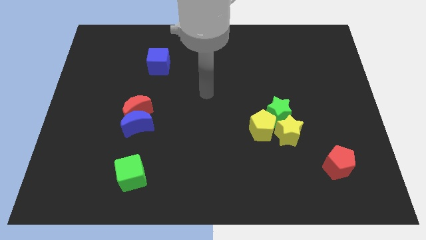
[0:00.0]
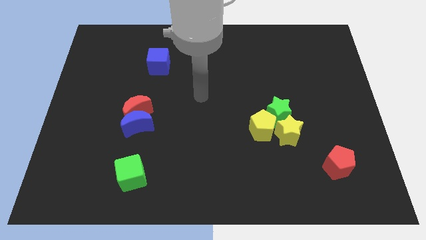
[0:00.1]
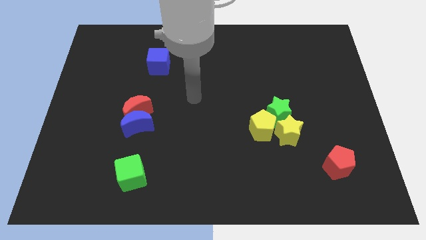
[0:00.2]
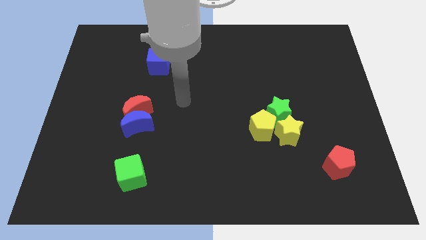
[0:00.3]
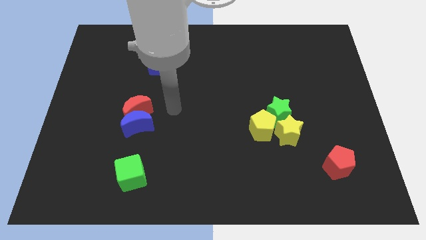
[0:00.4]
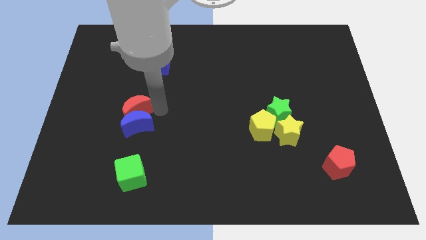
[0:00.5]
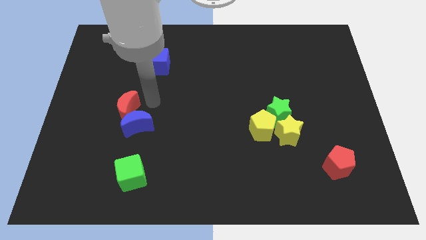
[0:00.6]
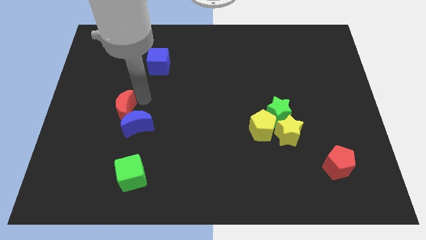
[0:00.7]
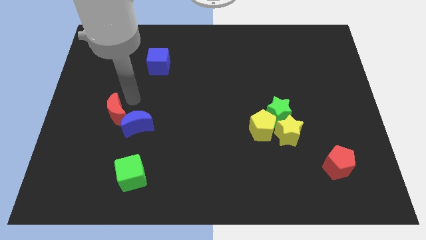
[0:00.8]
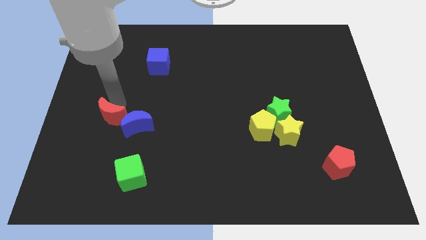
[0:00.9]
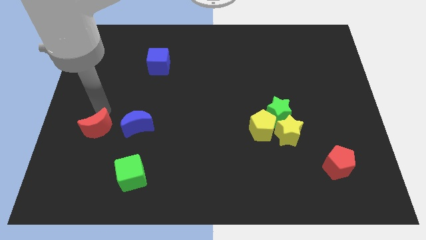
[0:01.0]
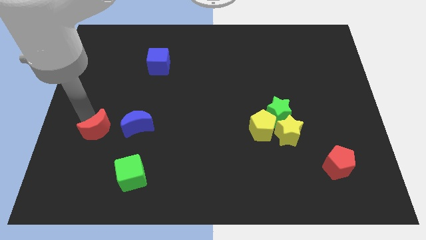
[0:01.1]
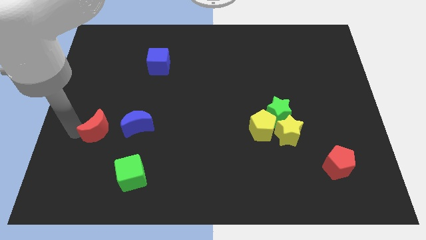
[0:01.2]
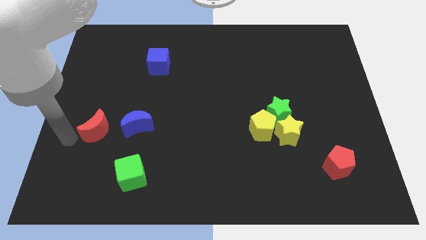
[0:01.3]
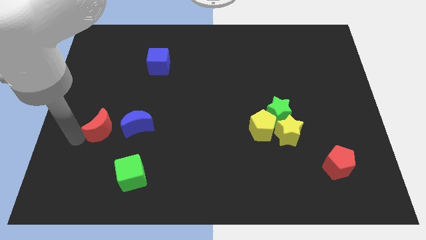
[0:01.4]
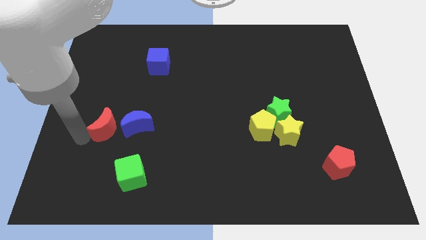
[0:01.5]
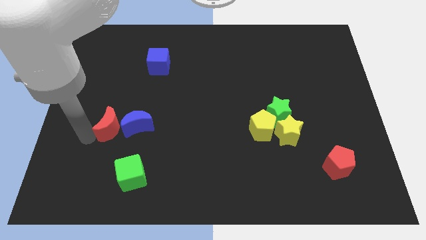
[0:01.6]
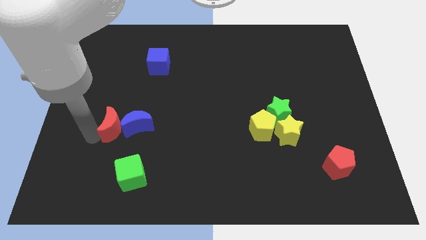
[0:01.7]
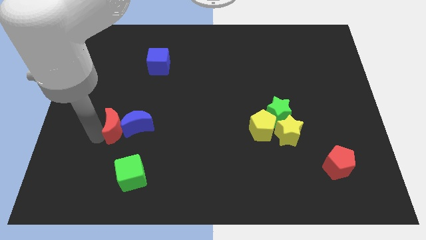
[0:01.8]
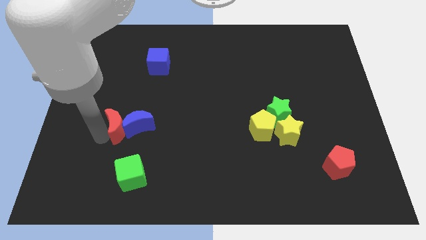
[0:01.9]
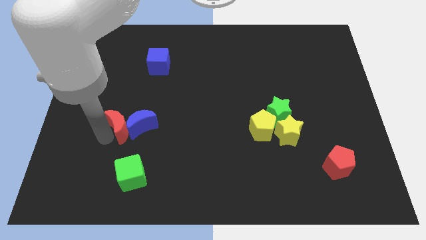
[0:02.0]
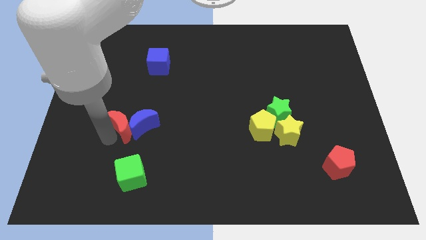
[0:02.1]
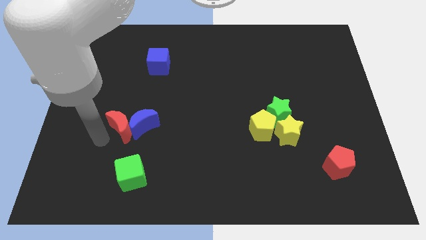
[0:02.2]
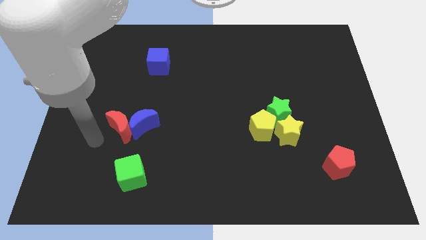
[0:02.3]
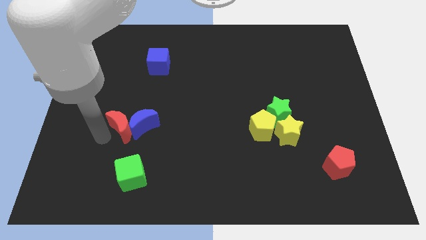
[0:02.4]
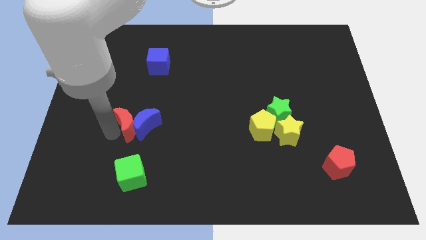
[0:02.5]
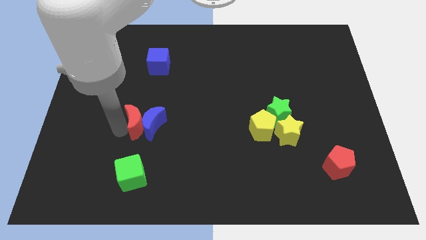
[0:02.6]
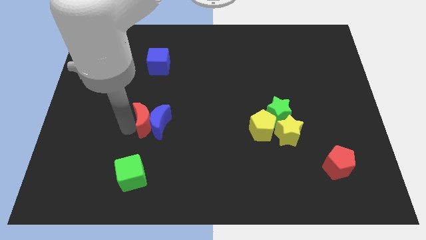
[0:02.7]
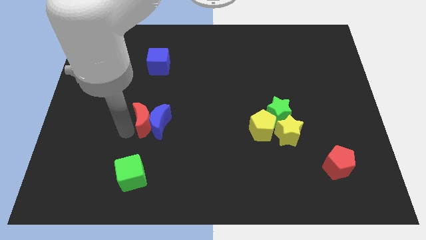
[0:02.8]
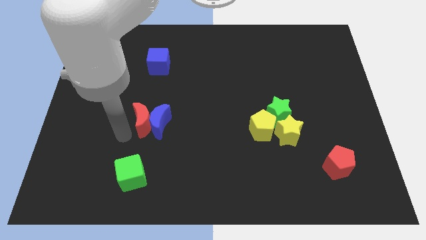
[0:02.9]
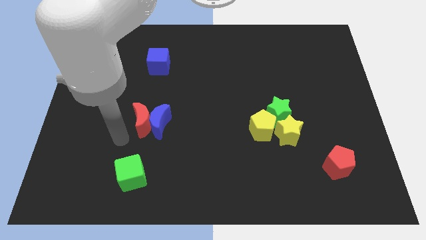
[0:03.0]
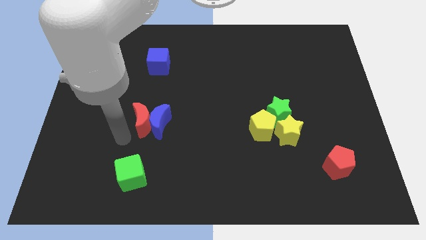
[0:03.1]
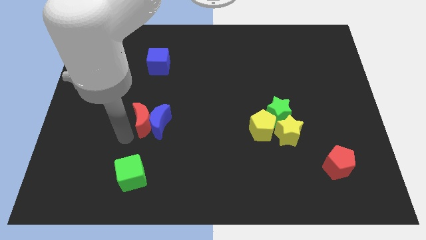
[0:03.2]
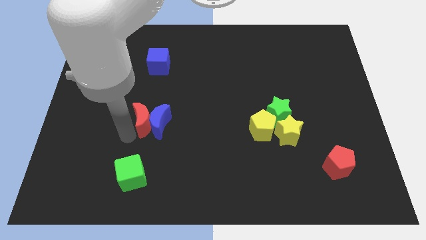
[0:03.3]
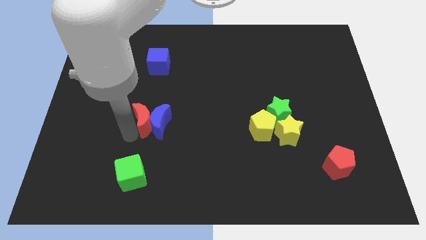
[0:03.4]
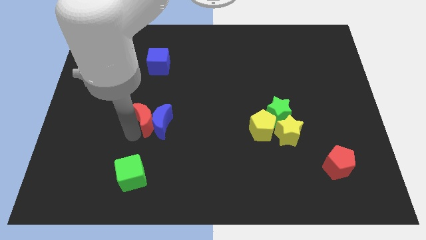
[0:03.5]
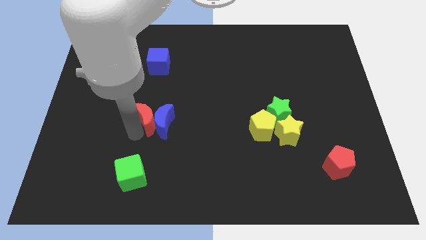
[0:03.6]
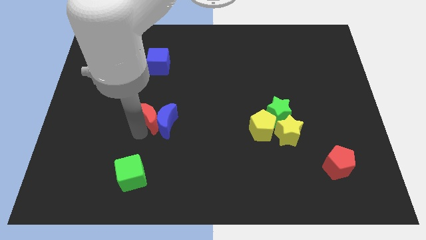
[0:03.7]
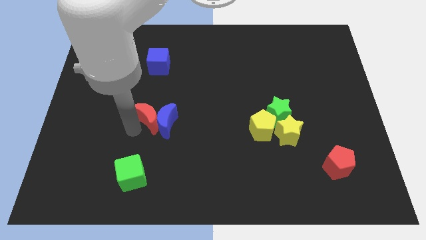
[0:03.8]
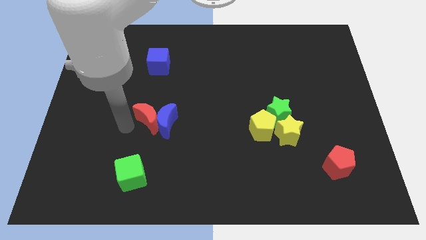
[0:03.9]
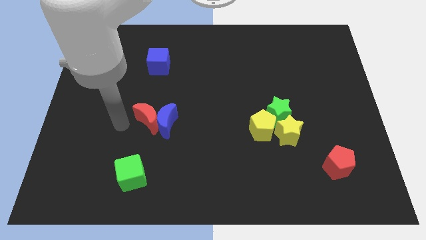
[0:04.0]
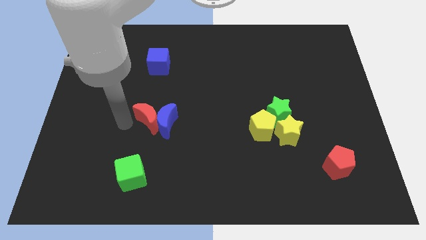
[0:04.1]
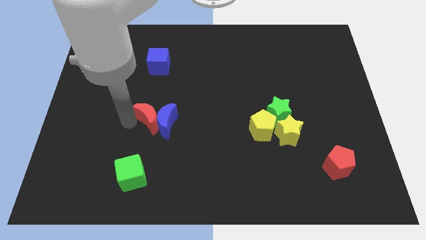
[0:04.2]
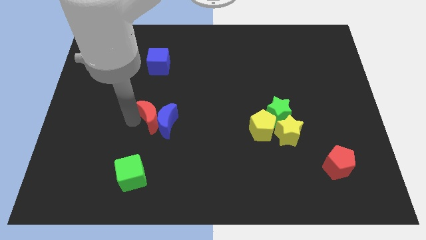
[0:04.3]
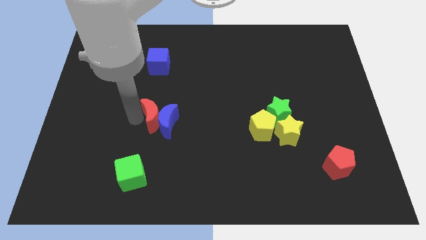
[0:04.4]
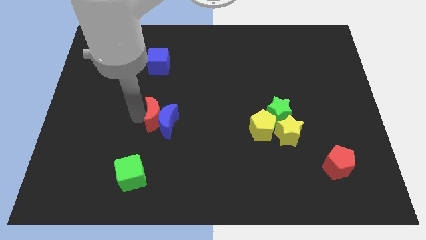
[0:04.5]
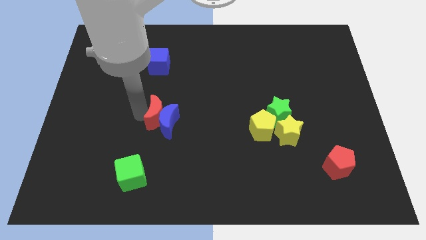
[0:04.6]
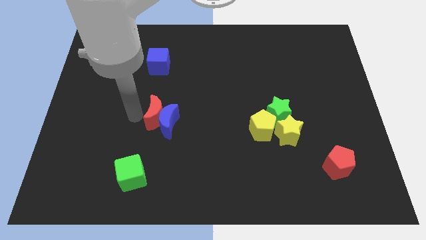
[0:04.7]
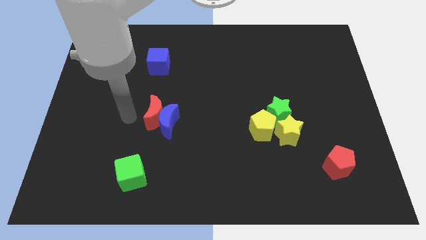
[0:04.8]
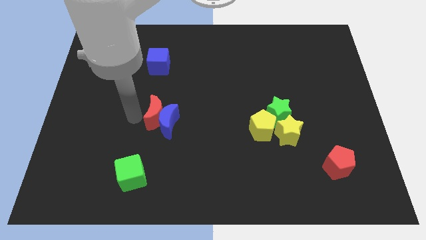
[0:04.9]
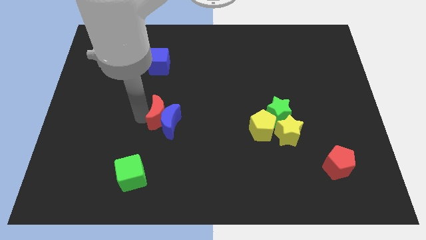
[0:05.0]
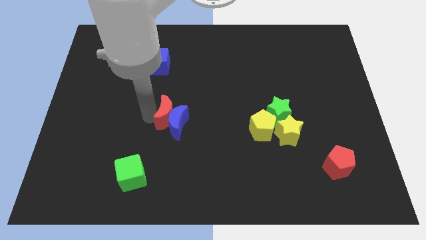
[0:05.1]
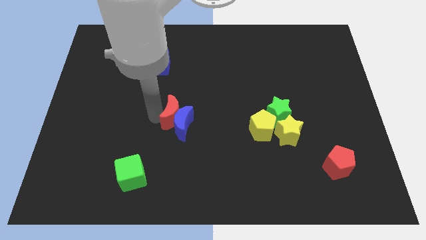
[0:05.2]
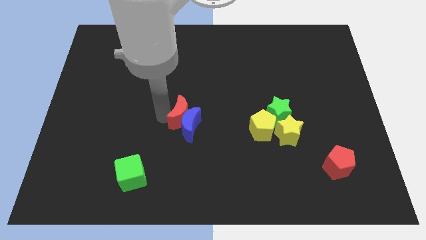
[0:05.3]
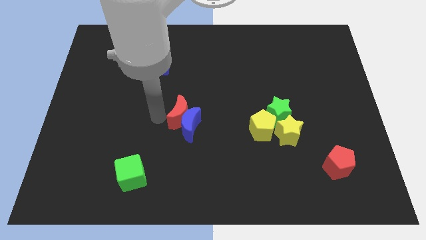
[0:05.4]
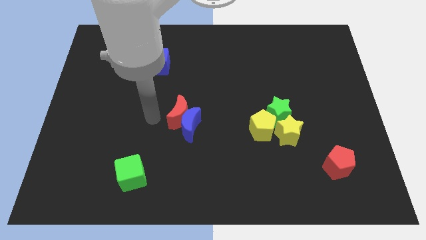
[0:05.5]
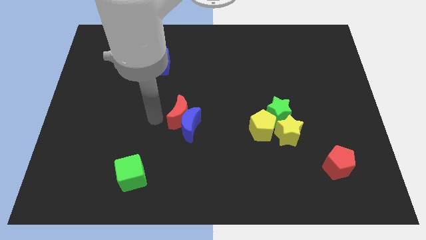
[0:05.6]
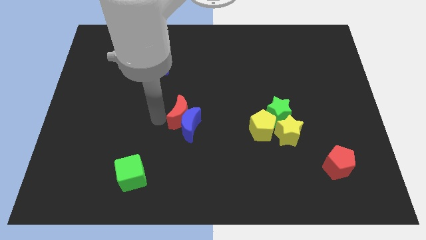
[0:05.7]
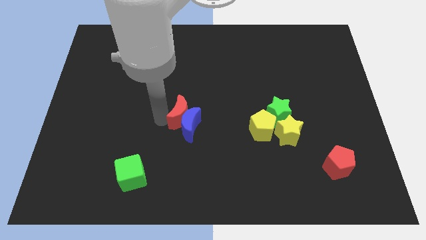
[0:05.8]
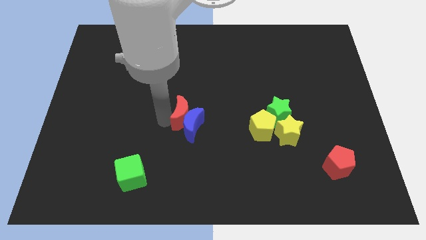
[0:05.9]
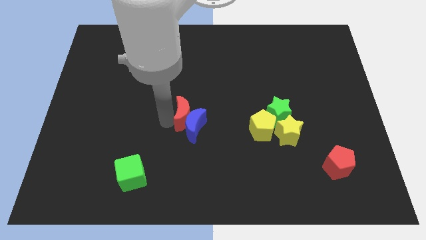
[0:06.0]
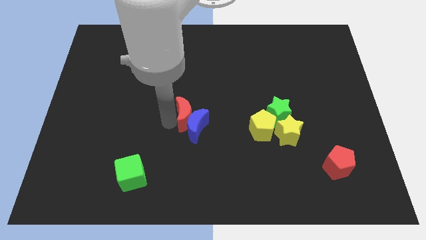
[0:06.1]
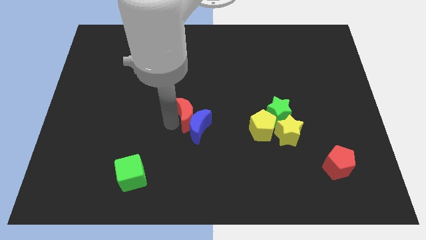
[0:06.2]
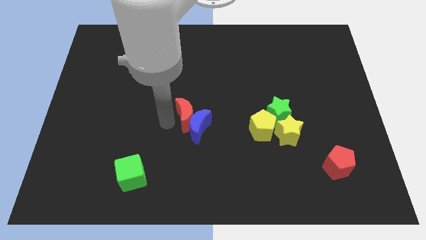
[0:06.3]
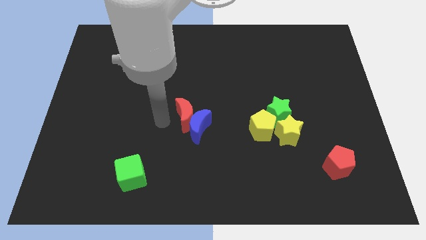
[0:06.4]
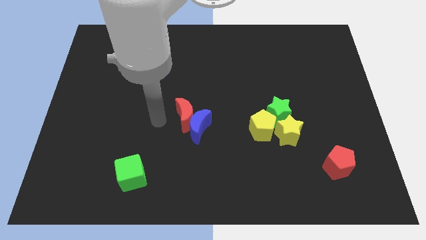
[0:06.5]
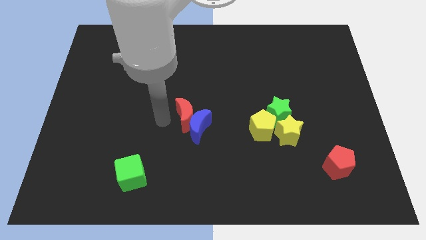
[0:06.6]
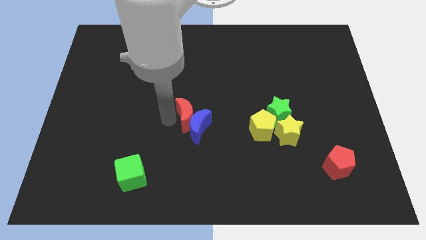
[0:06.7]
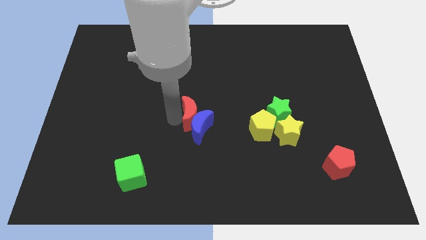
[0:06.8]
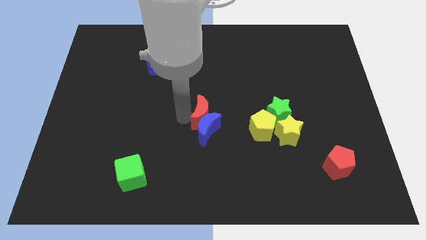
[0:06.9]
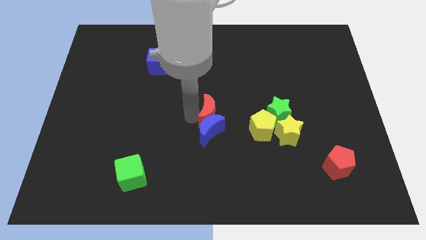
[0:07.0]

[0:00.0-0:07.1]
move the red moon just left of the green star

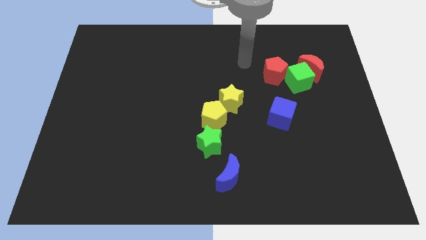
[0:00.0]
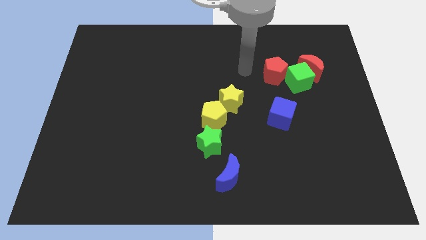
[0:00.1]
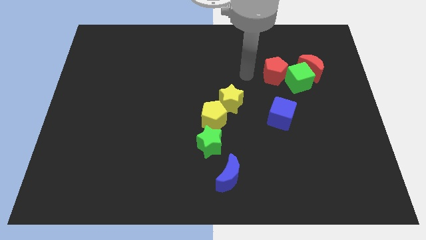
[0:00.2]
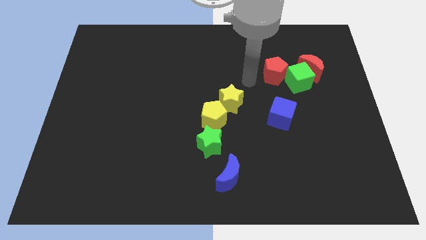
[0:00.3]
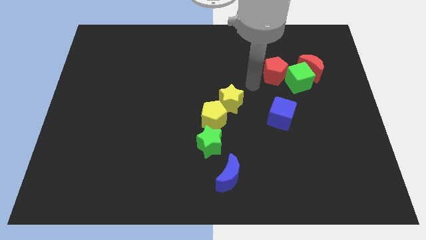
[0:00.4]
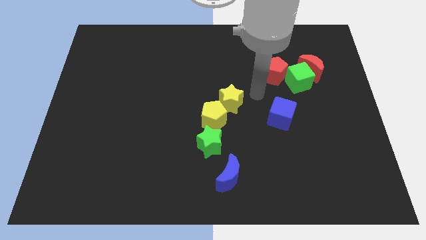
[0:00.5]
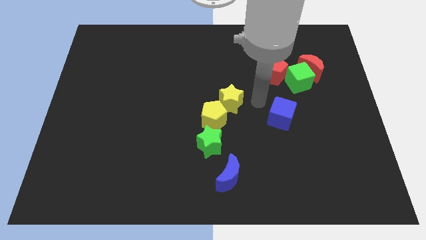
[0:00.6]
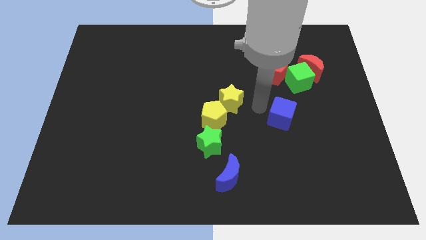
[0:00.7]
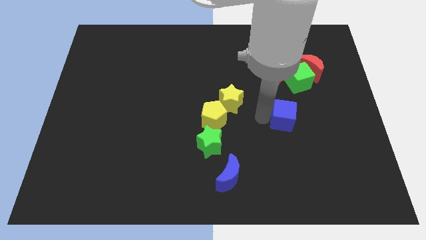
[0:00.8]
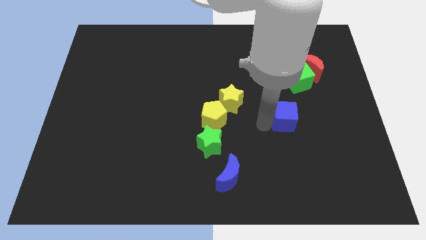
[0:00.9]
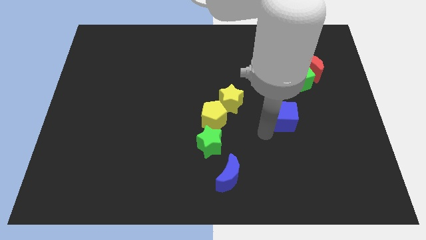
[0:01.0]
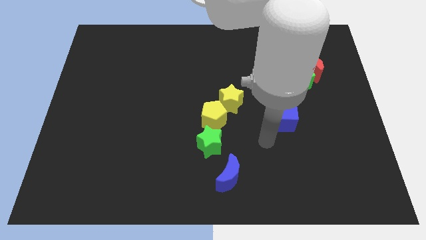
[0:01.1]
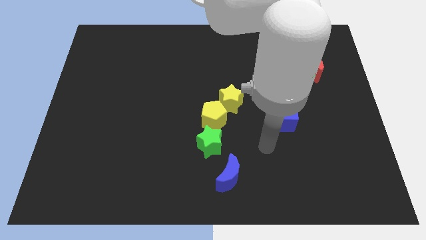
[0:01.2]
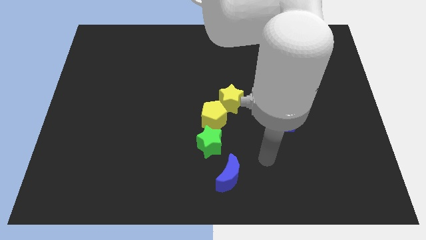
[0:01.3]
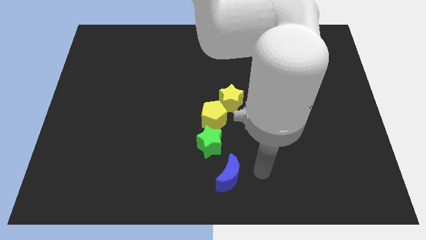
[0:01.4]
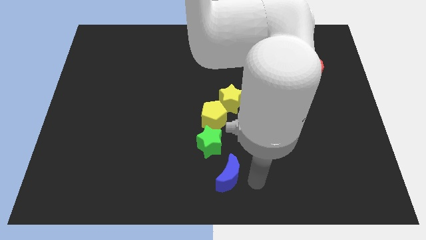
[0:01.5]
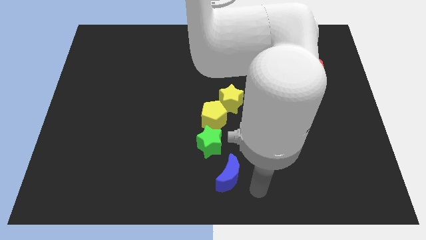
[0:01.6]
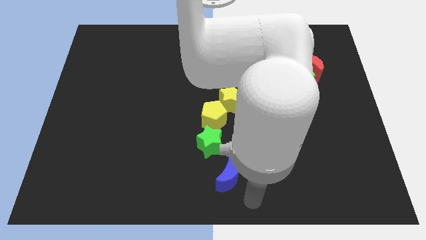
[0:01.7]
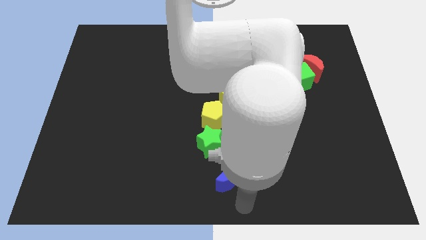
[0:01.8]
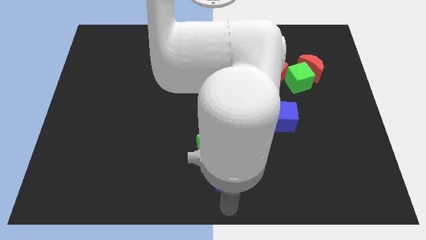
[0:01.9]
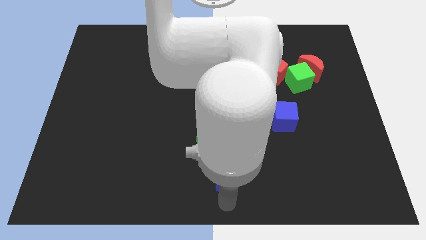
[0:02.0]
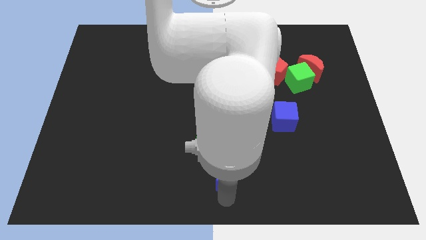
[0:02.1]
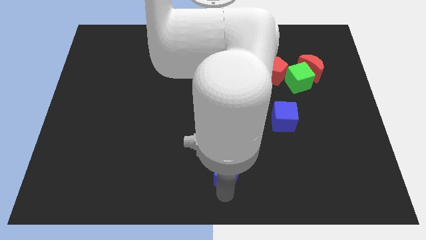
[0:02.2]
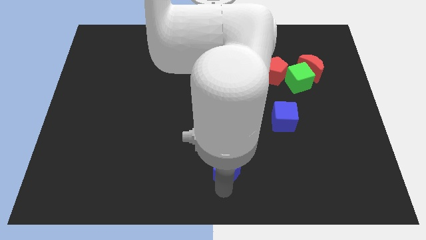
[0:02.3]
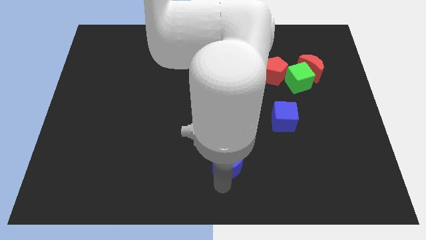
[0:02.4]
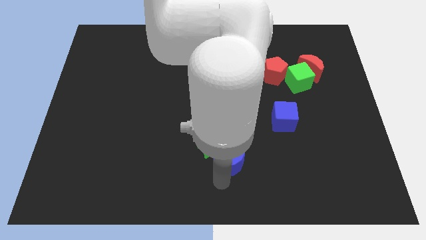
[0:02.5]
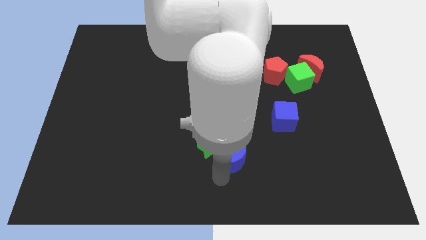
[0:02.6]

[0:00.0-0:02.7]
put the blue moon to the bottom of the yellow star
